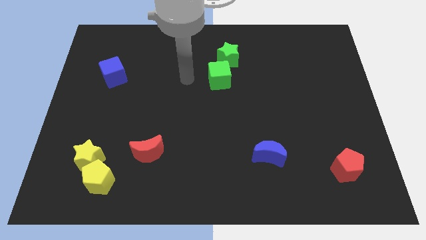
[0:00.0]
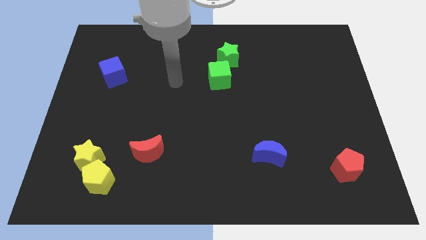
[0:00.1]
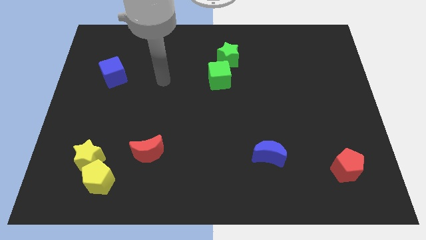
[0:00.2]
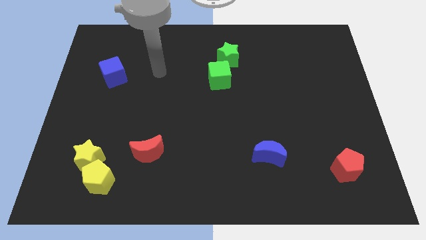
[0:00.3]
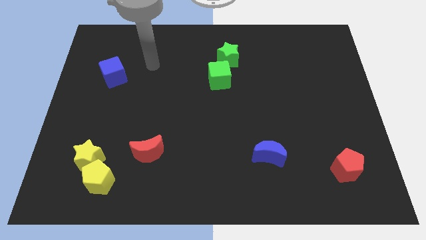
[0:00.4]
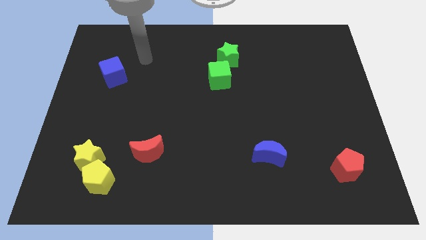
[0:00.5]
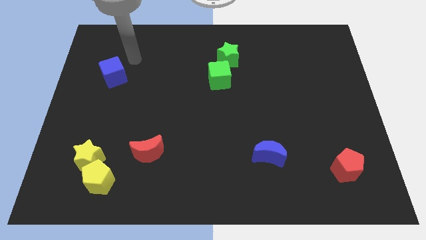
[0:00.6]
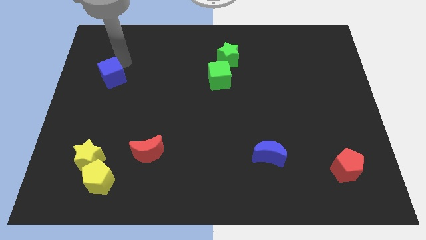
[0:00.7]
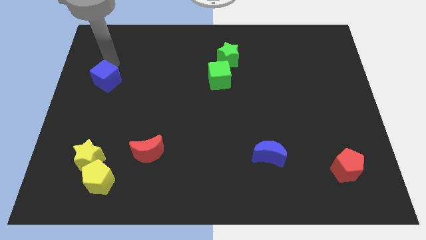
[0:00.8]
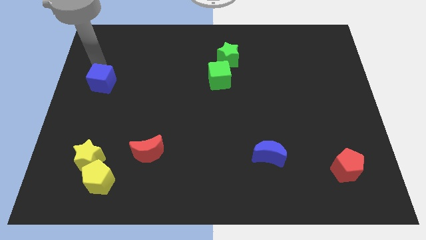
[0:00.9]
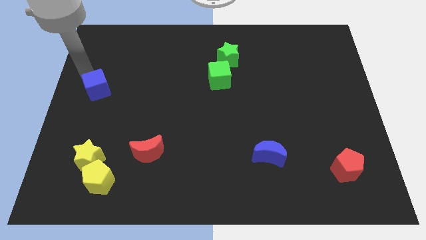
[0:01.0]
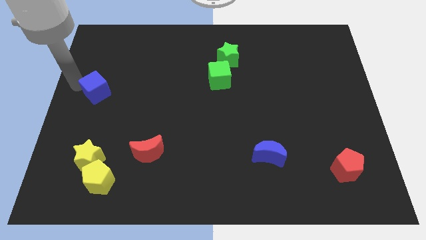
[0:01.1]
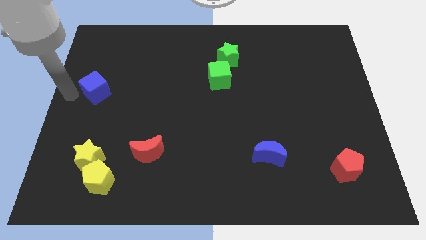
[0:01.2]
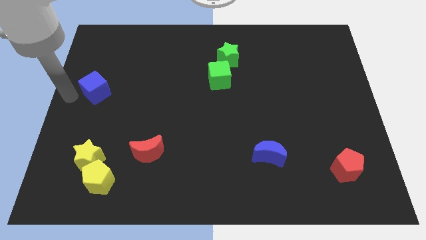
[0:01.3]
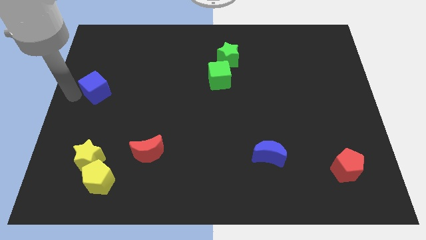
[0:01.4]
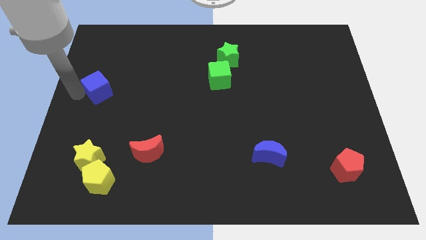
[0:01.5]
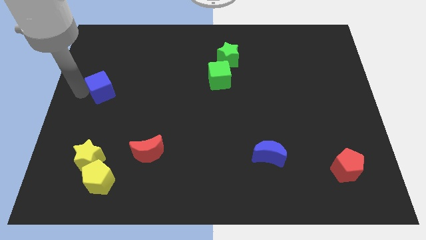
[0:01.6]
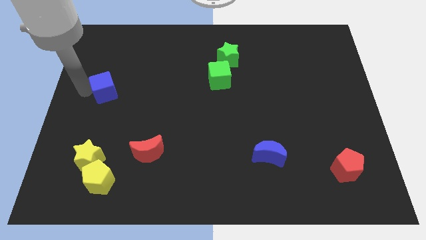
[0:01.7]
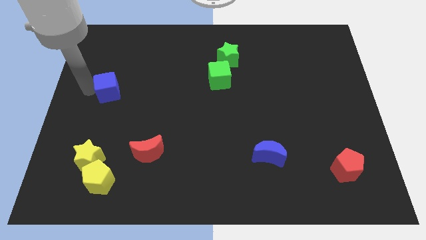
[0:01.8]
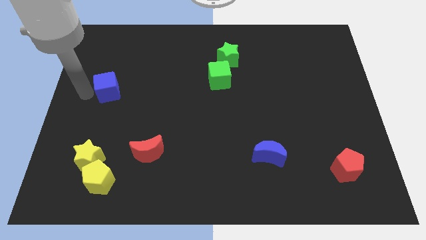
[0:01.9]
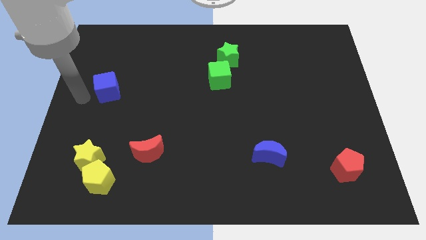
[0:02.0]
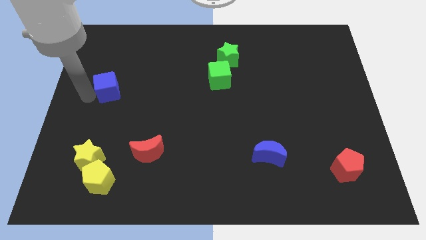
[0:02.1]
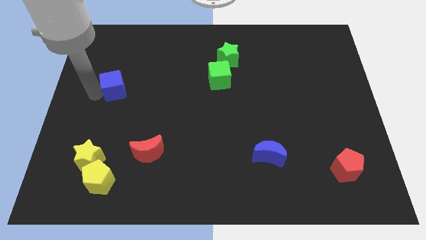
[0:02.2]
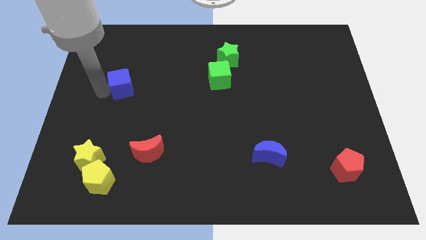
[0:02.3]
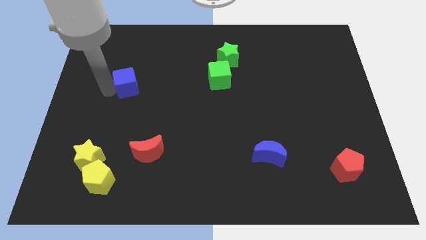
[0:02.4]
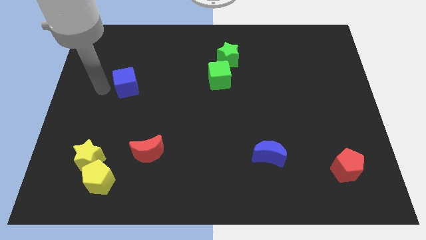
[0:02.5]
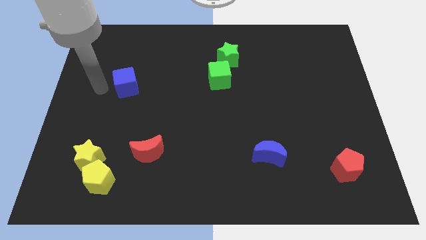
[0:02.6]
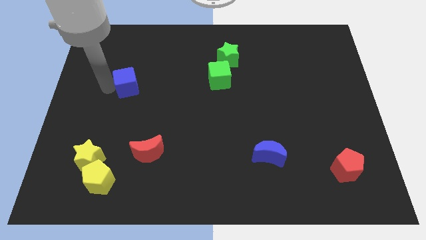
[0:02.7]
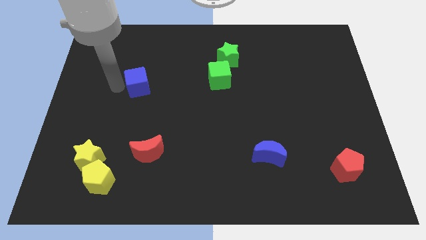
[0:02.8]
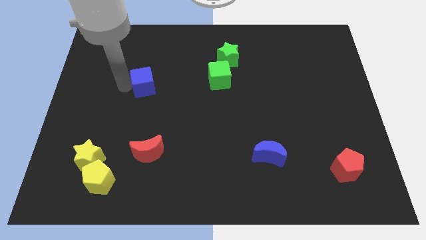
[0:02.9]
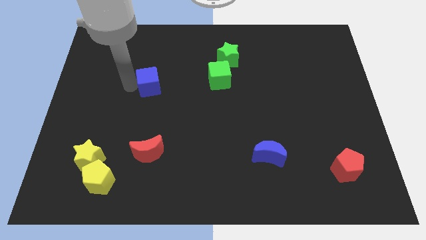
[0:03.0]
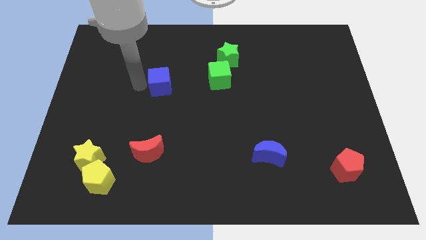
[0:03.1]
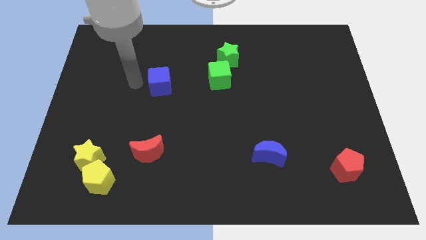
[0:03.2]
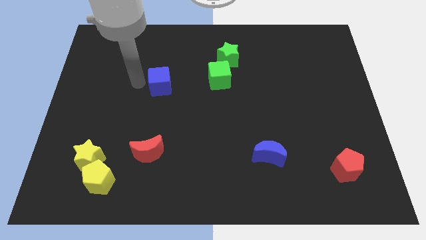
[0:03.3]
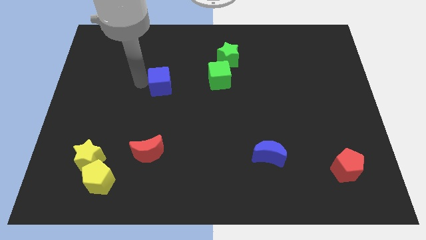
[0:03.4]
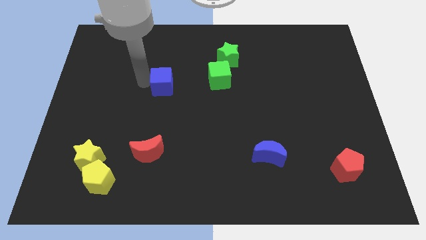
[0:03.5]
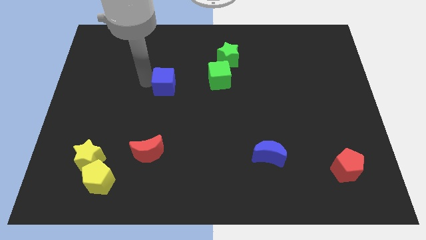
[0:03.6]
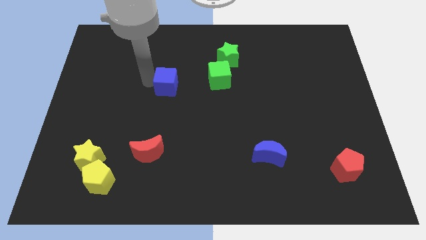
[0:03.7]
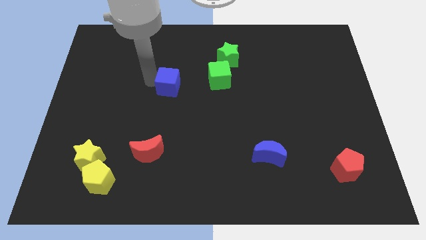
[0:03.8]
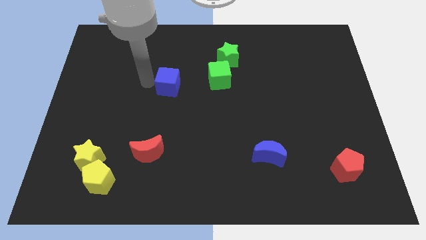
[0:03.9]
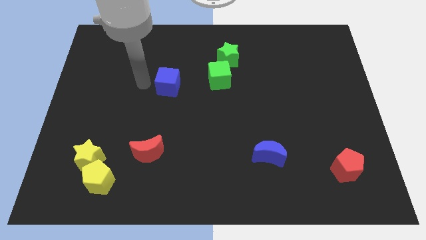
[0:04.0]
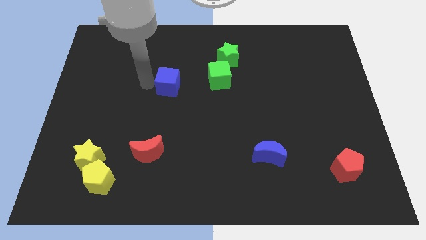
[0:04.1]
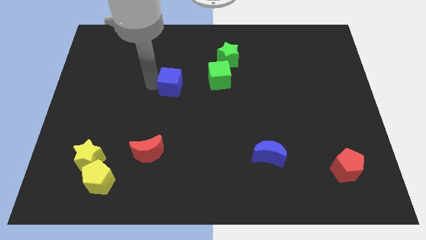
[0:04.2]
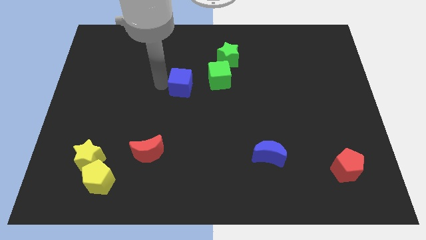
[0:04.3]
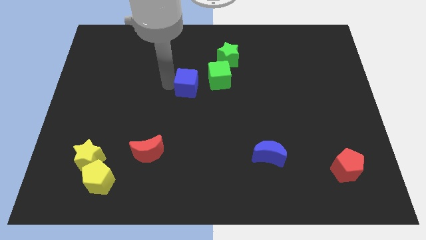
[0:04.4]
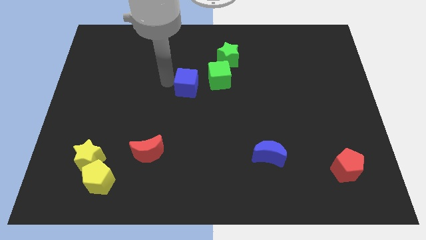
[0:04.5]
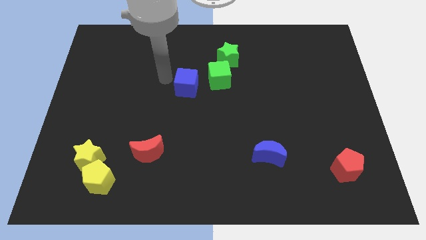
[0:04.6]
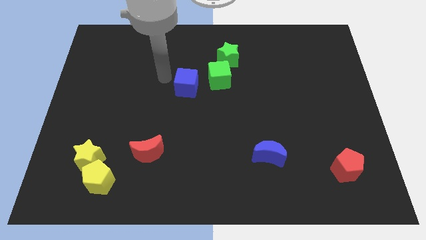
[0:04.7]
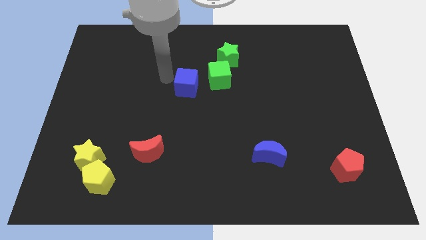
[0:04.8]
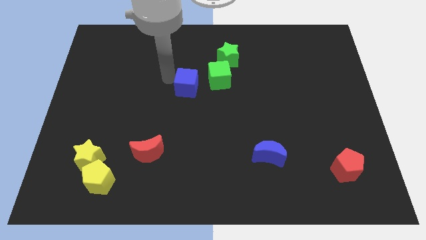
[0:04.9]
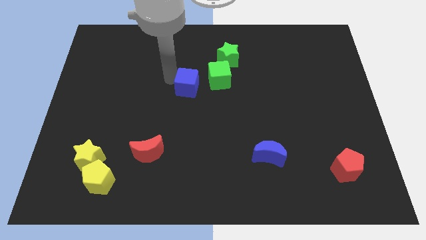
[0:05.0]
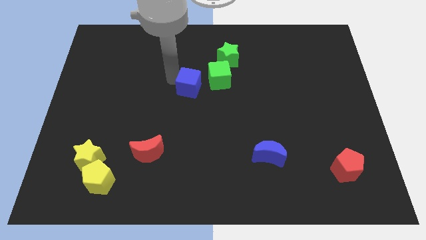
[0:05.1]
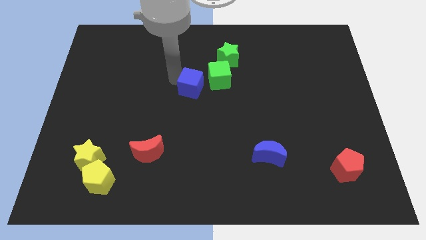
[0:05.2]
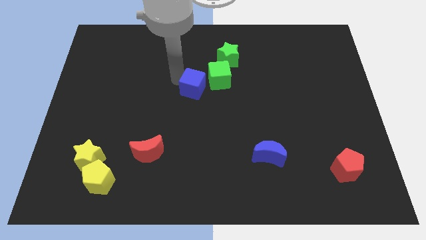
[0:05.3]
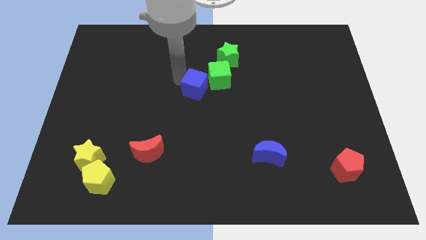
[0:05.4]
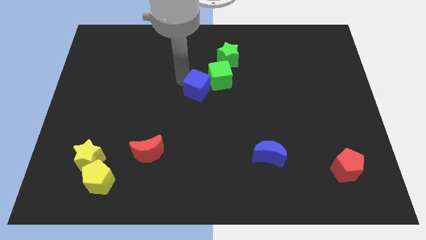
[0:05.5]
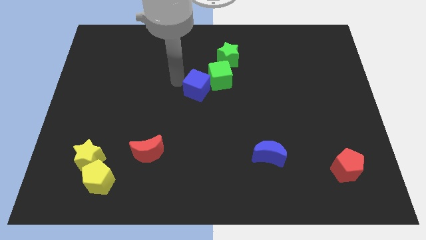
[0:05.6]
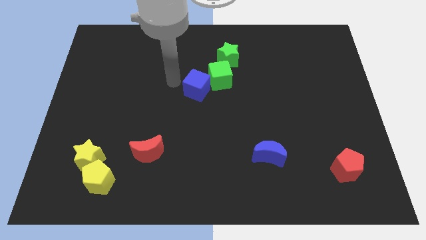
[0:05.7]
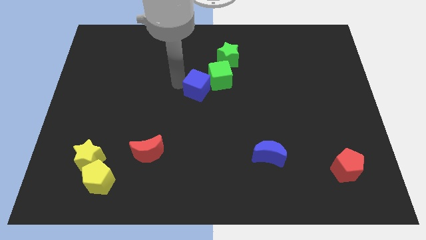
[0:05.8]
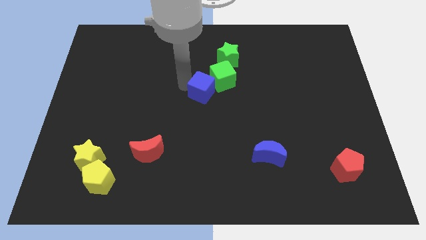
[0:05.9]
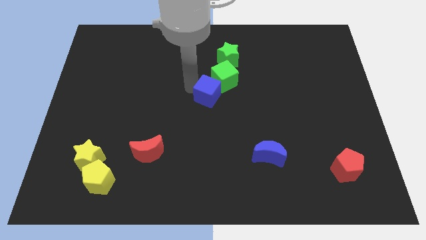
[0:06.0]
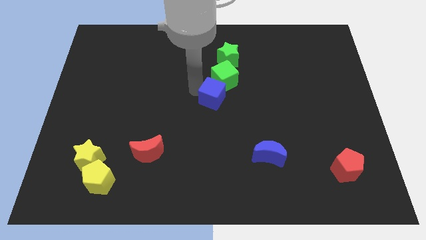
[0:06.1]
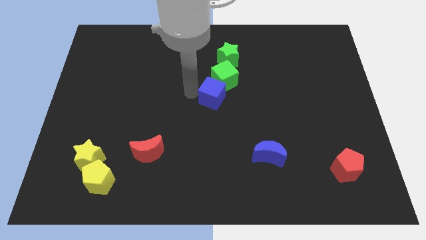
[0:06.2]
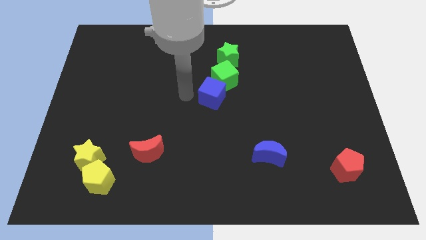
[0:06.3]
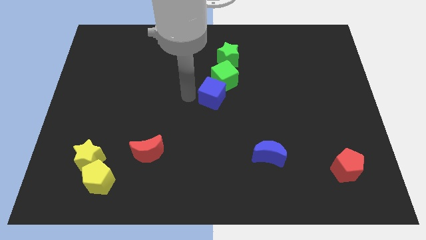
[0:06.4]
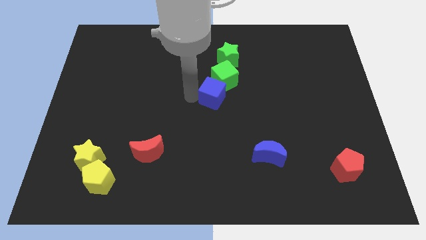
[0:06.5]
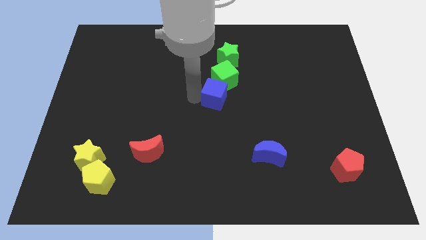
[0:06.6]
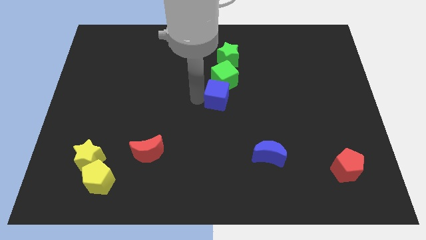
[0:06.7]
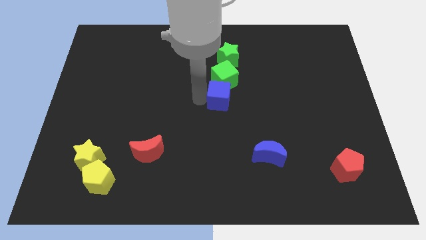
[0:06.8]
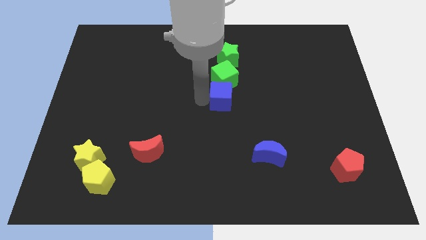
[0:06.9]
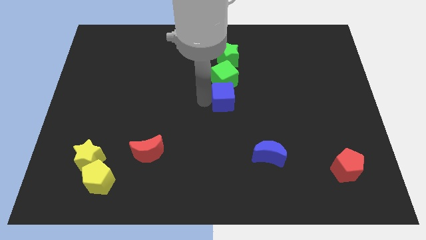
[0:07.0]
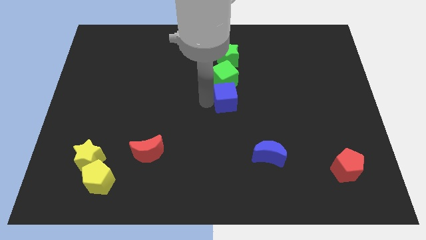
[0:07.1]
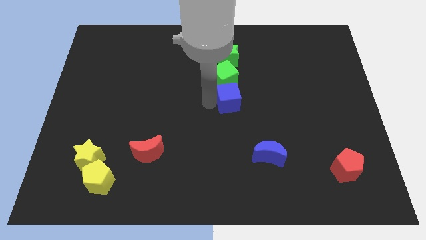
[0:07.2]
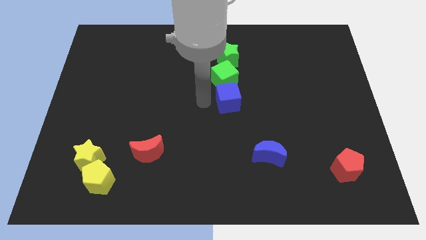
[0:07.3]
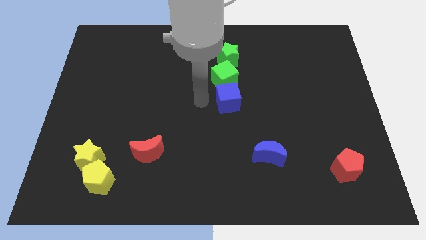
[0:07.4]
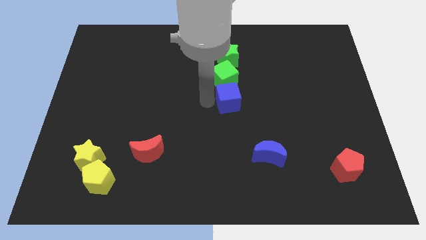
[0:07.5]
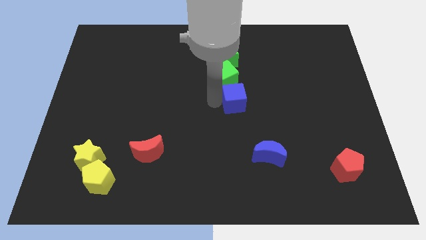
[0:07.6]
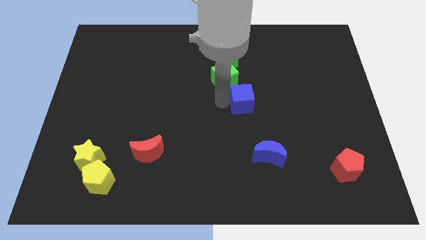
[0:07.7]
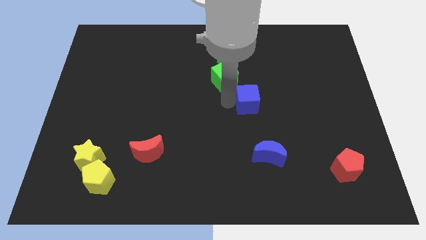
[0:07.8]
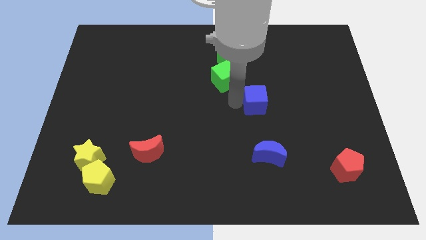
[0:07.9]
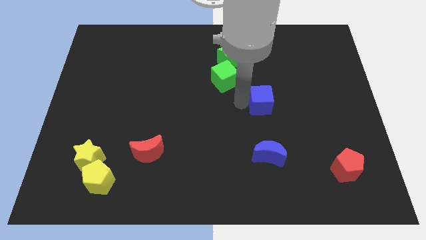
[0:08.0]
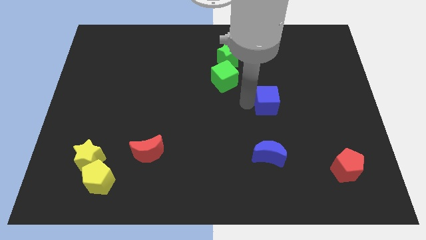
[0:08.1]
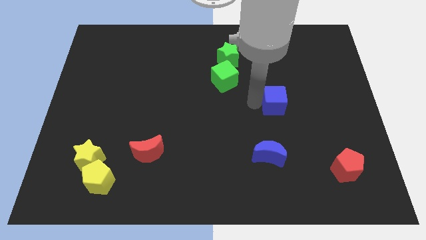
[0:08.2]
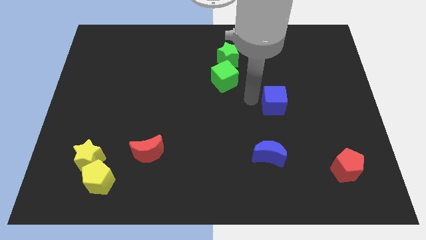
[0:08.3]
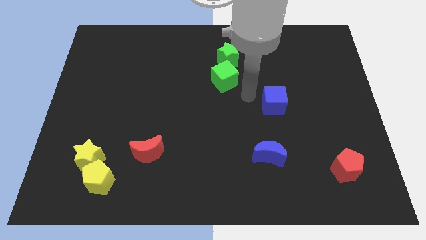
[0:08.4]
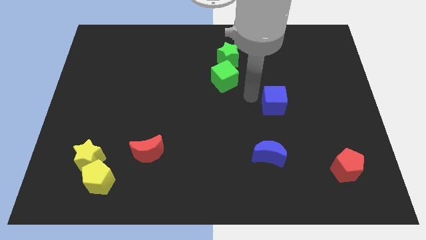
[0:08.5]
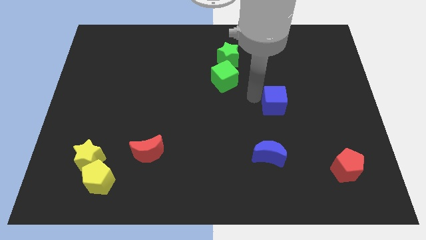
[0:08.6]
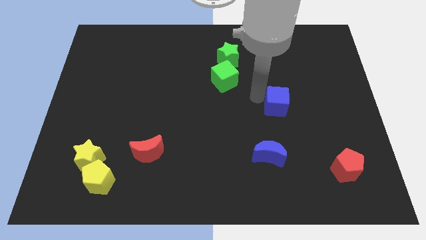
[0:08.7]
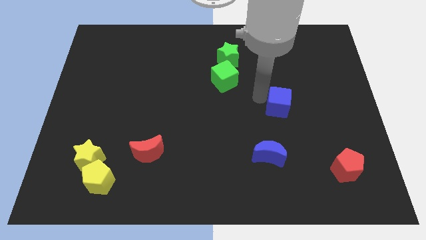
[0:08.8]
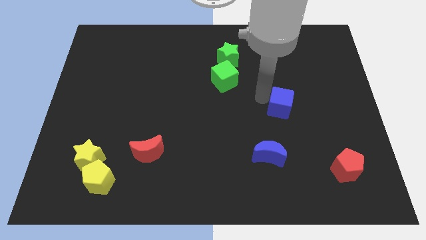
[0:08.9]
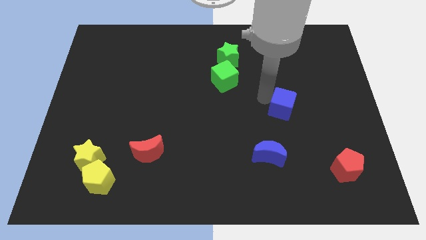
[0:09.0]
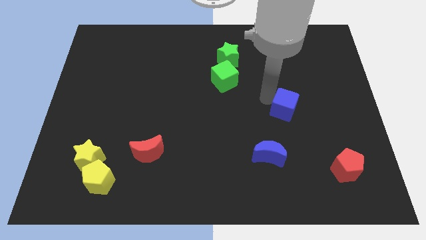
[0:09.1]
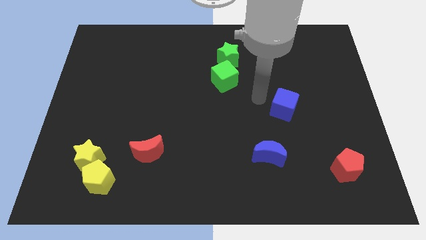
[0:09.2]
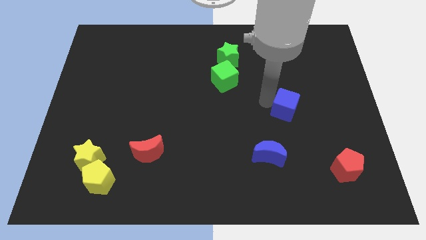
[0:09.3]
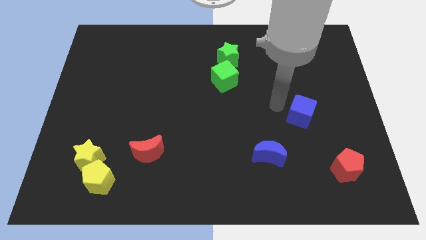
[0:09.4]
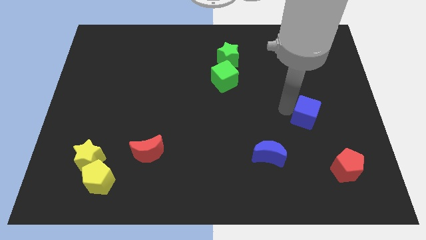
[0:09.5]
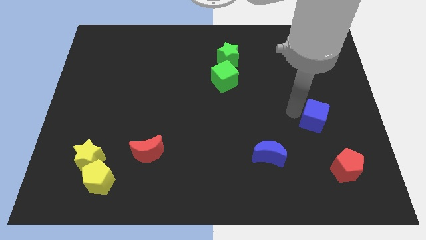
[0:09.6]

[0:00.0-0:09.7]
move the blue cube to the top of the red pentagon
